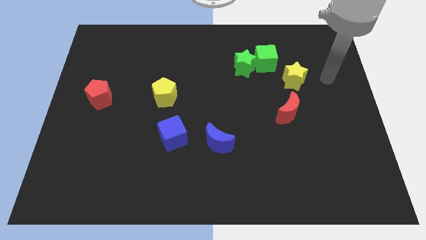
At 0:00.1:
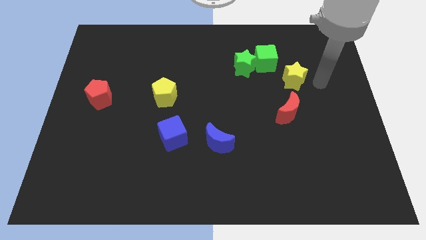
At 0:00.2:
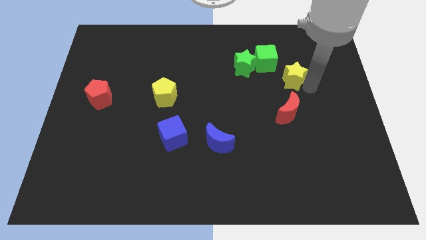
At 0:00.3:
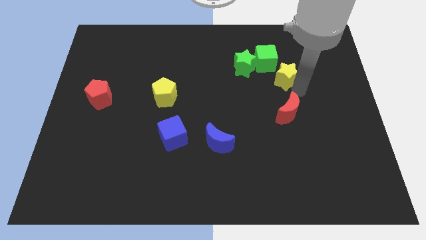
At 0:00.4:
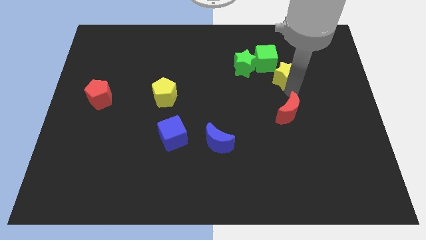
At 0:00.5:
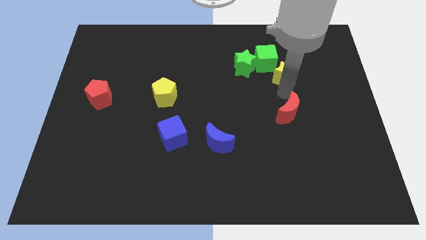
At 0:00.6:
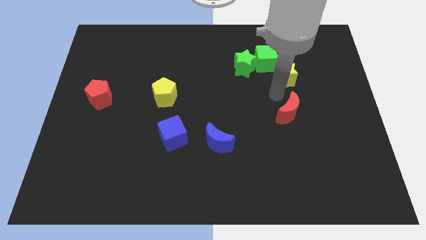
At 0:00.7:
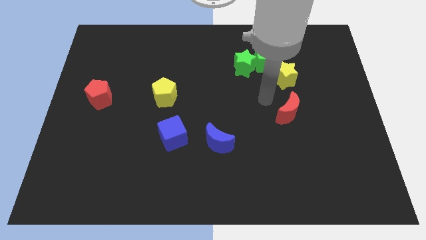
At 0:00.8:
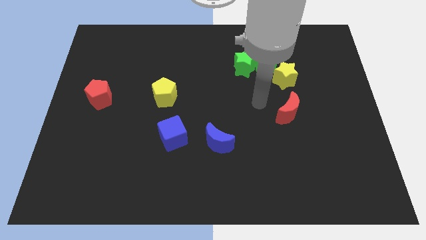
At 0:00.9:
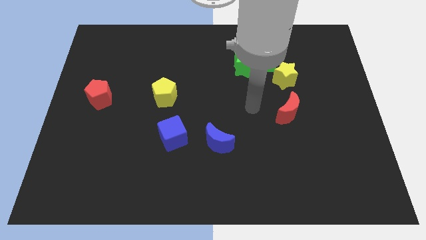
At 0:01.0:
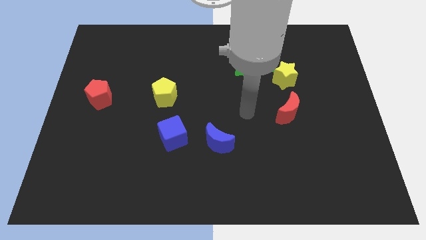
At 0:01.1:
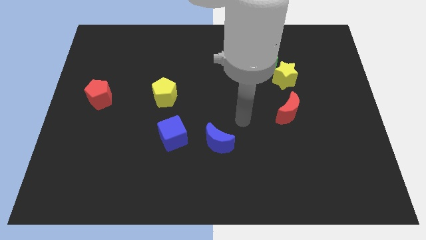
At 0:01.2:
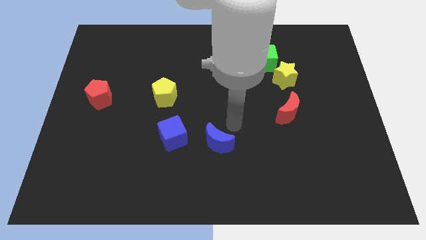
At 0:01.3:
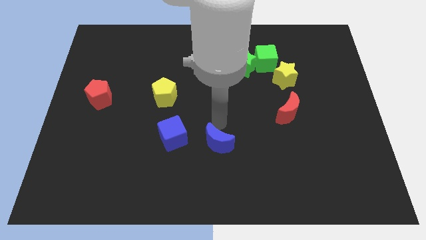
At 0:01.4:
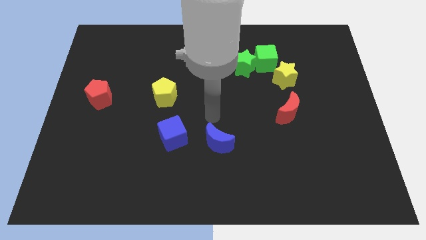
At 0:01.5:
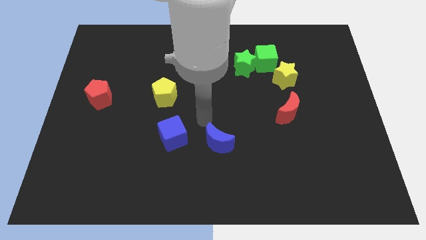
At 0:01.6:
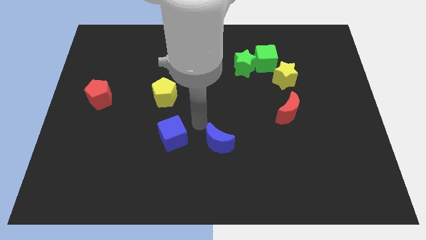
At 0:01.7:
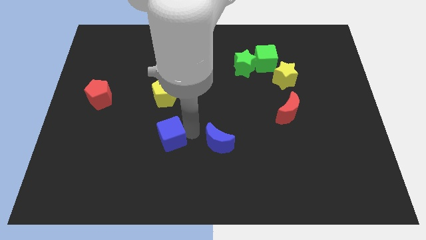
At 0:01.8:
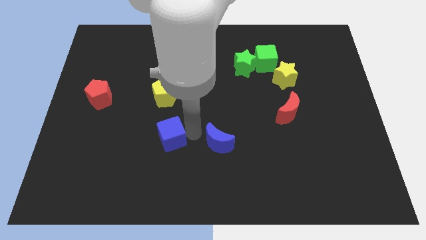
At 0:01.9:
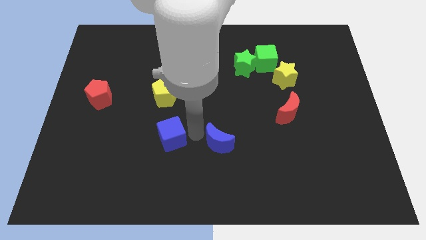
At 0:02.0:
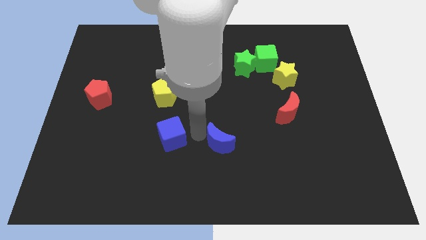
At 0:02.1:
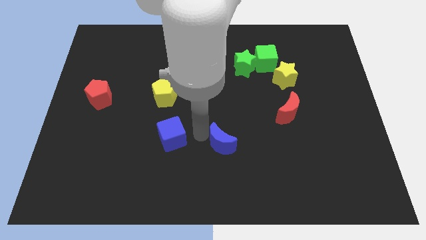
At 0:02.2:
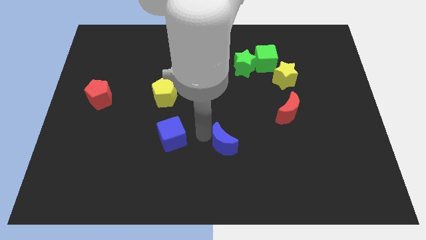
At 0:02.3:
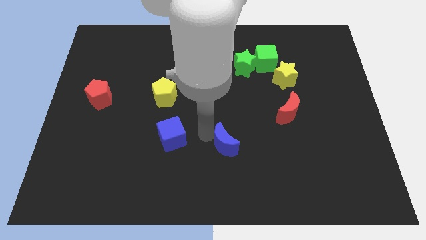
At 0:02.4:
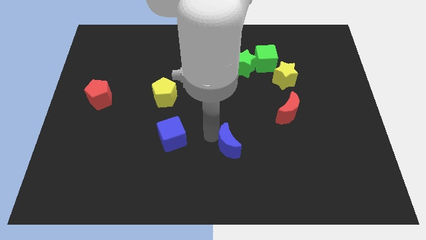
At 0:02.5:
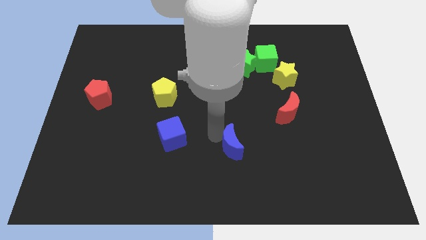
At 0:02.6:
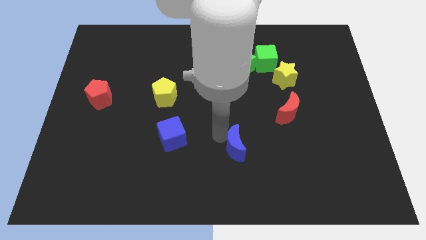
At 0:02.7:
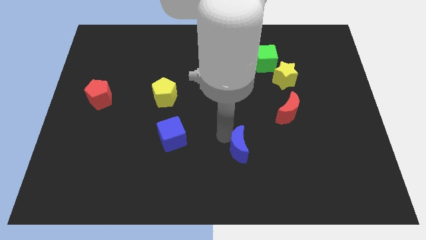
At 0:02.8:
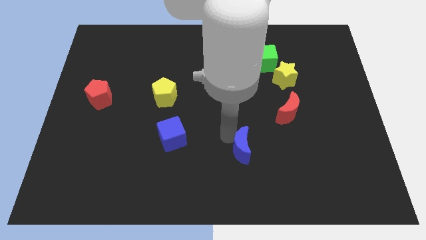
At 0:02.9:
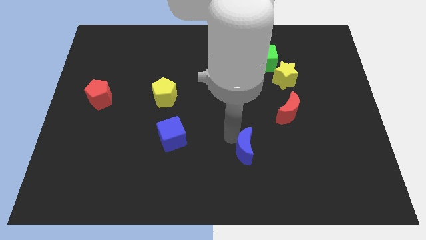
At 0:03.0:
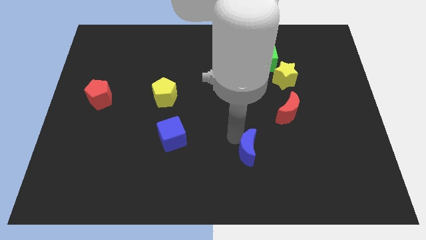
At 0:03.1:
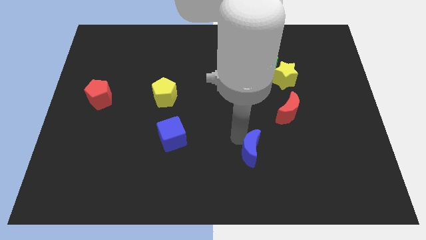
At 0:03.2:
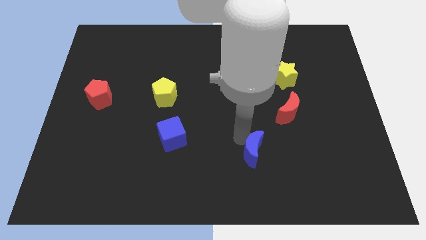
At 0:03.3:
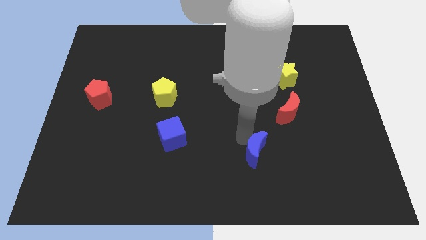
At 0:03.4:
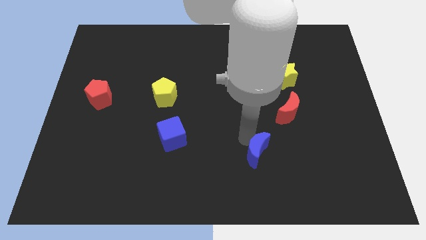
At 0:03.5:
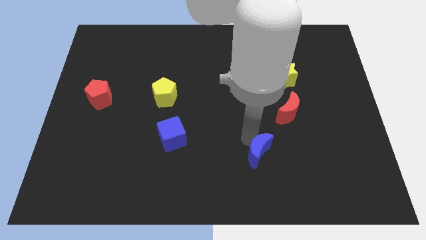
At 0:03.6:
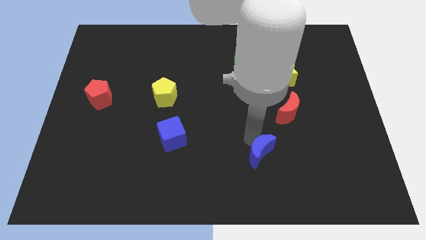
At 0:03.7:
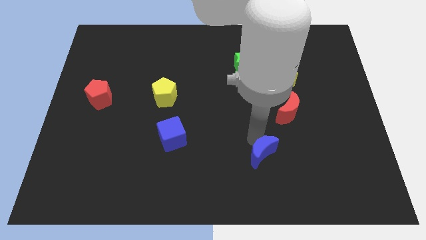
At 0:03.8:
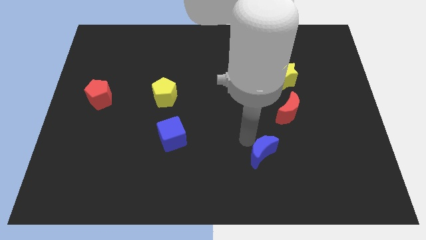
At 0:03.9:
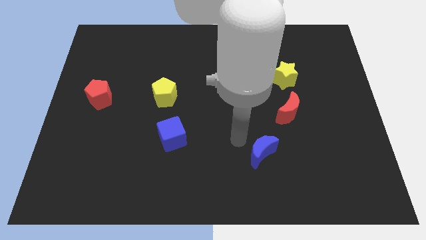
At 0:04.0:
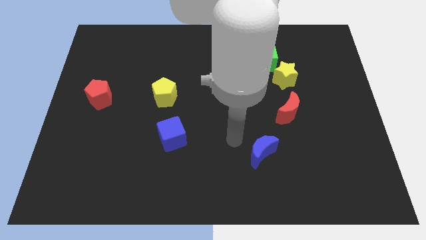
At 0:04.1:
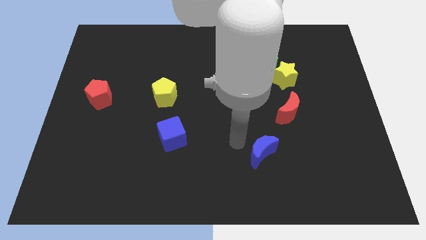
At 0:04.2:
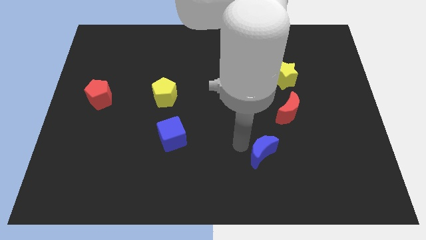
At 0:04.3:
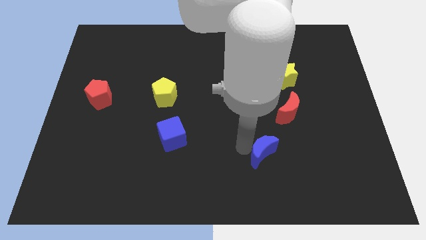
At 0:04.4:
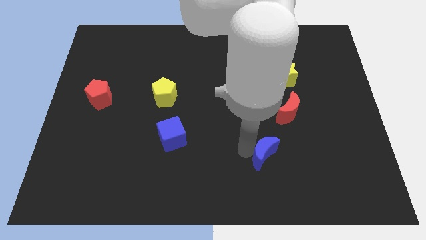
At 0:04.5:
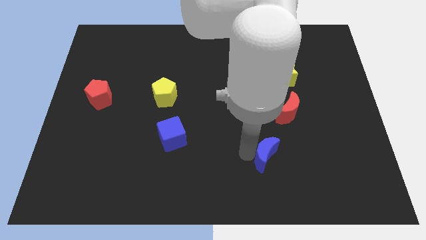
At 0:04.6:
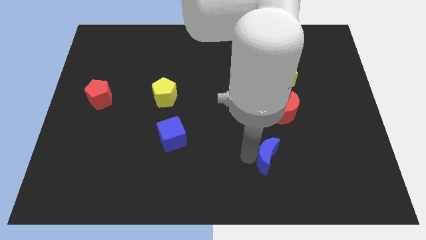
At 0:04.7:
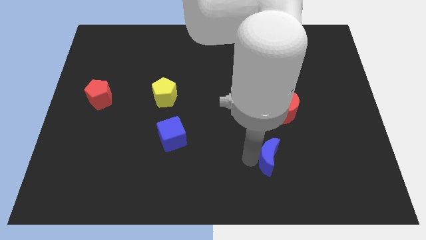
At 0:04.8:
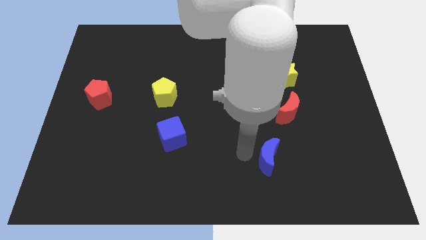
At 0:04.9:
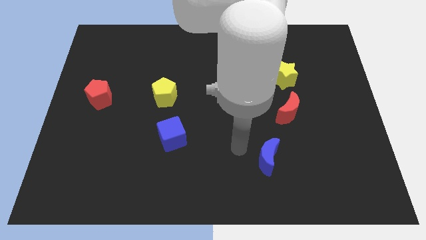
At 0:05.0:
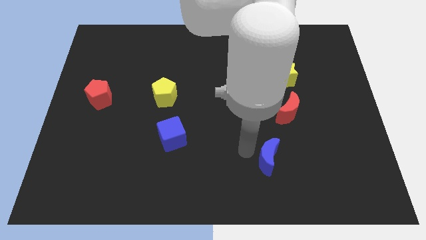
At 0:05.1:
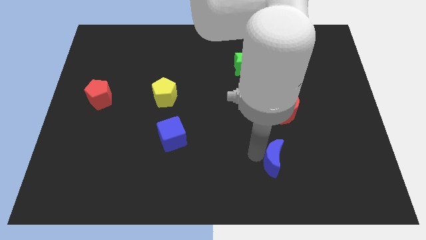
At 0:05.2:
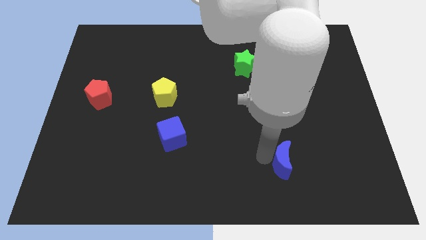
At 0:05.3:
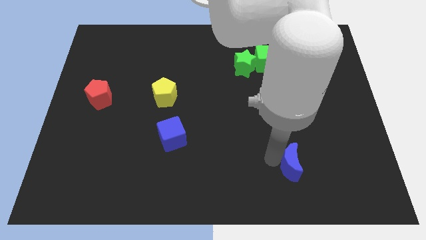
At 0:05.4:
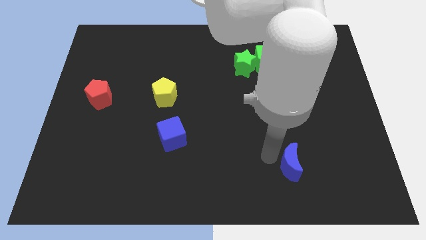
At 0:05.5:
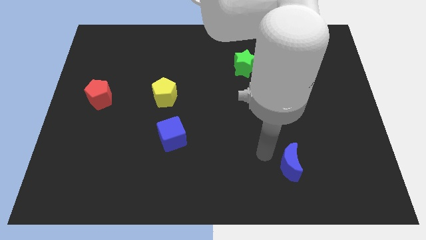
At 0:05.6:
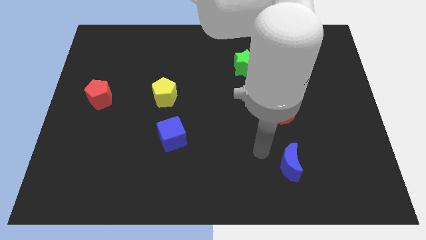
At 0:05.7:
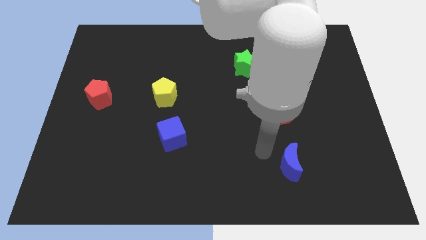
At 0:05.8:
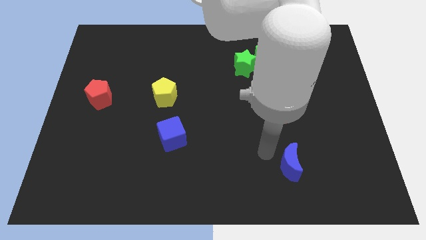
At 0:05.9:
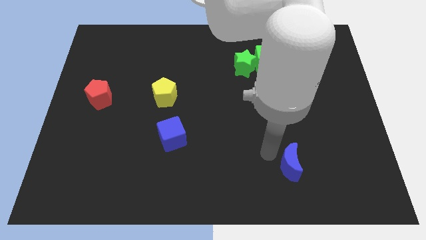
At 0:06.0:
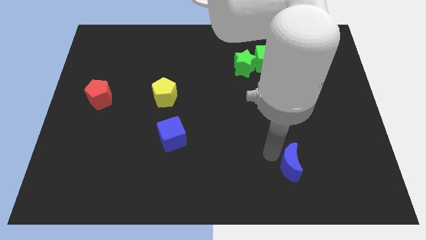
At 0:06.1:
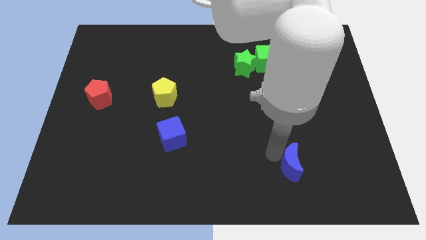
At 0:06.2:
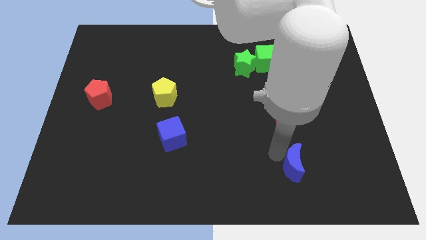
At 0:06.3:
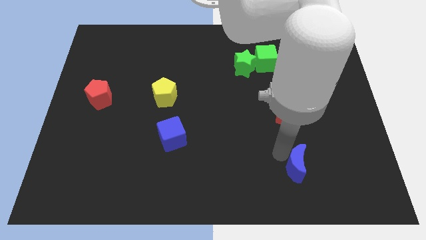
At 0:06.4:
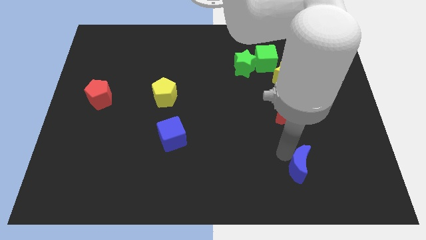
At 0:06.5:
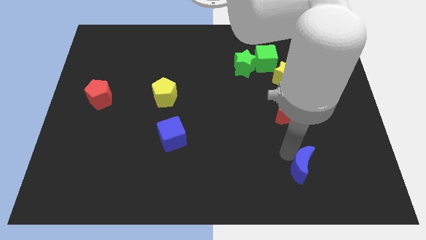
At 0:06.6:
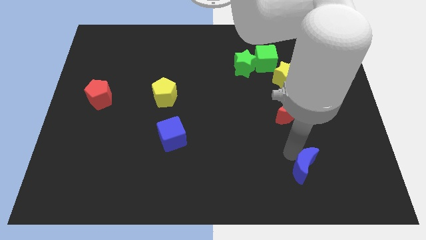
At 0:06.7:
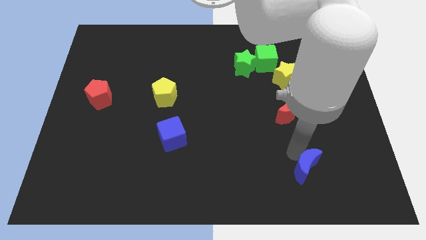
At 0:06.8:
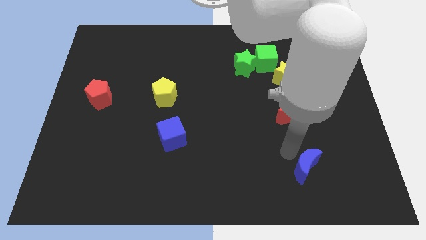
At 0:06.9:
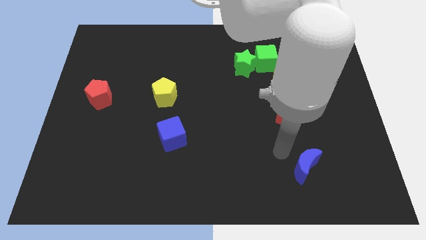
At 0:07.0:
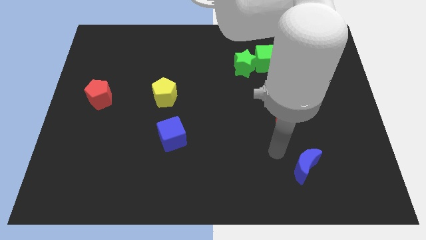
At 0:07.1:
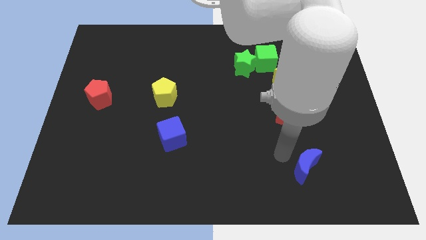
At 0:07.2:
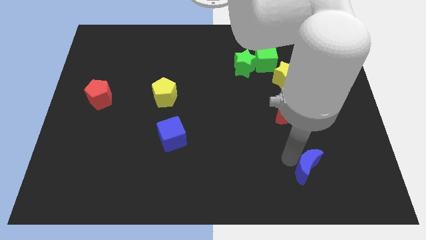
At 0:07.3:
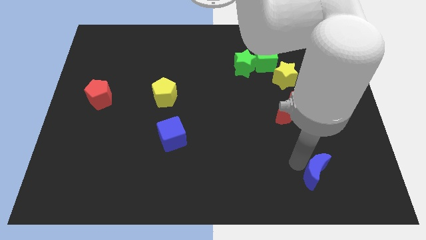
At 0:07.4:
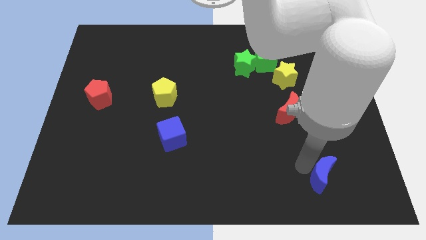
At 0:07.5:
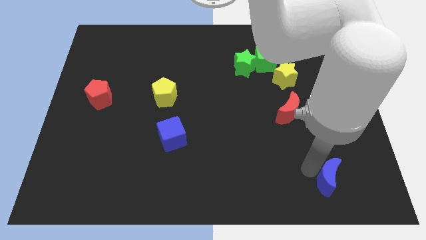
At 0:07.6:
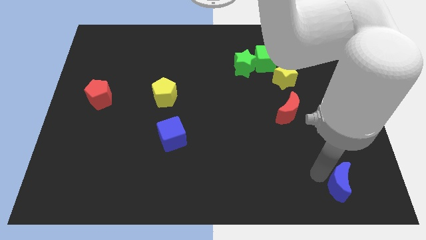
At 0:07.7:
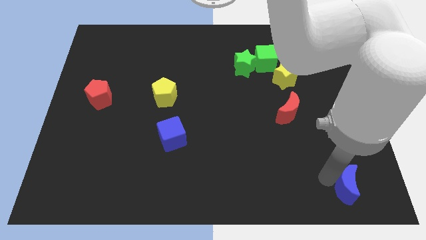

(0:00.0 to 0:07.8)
put the blue moon to the lower right corner
